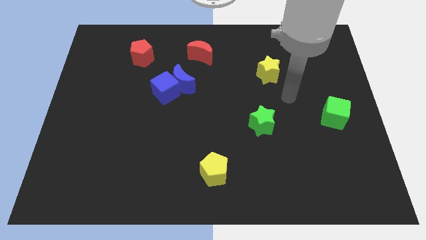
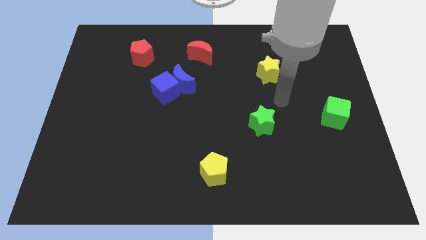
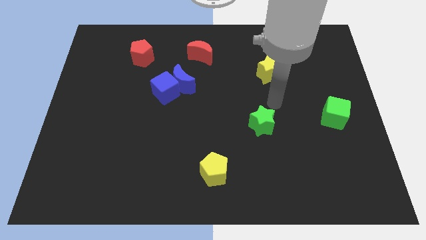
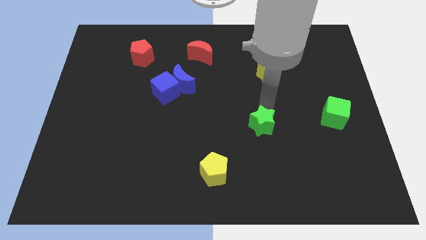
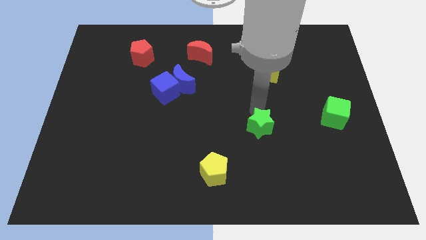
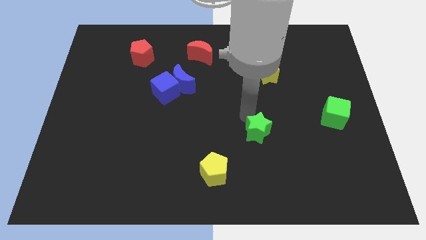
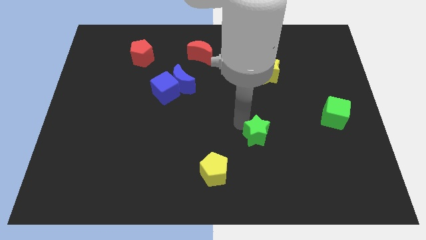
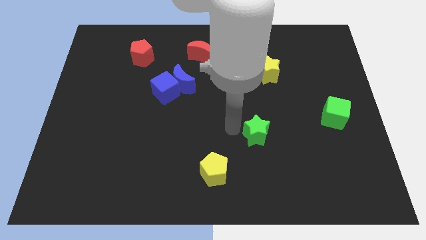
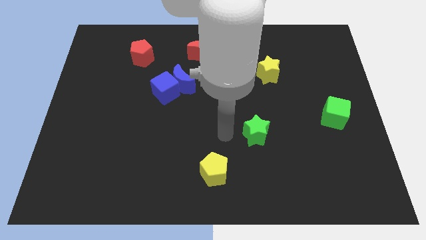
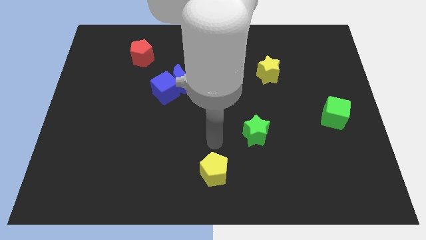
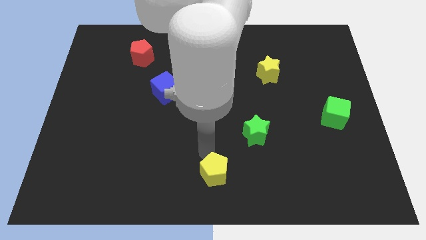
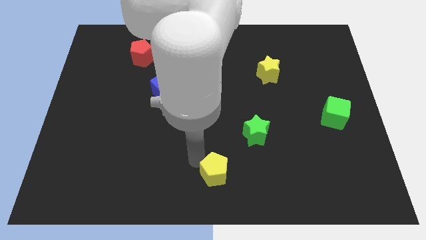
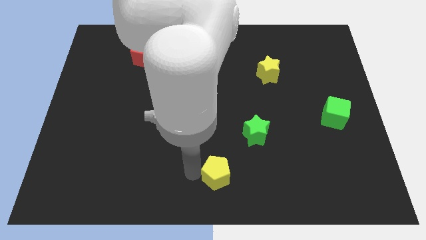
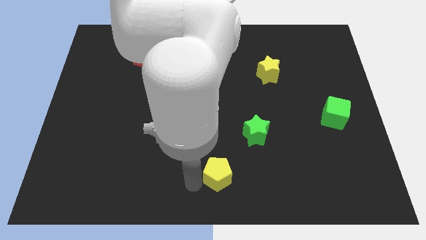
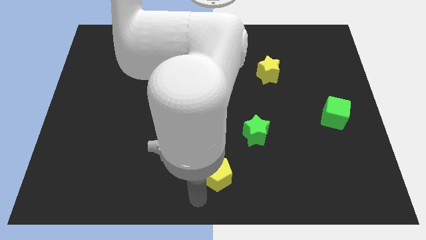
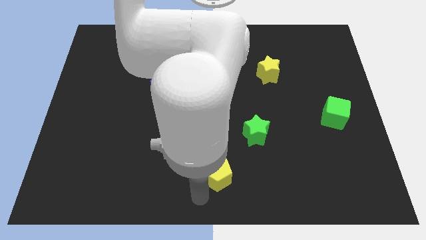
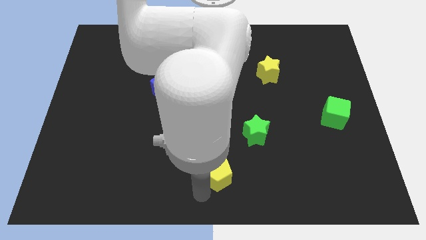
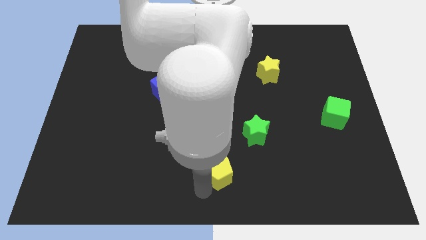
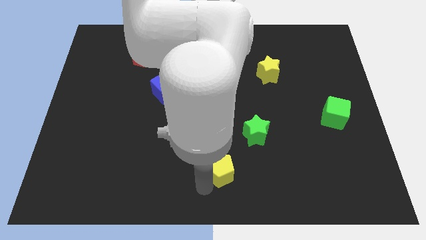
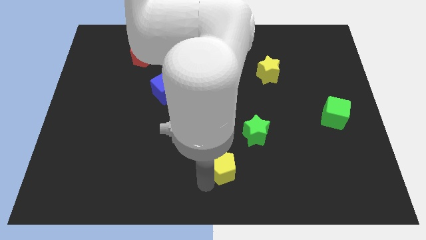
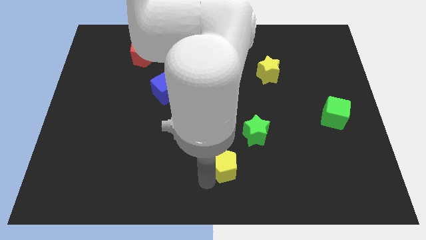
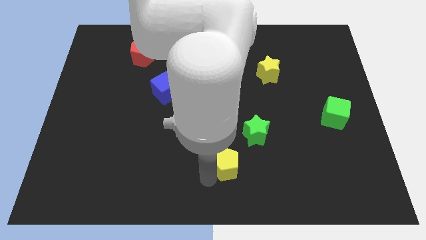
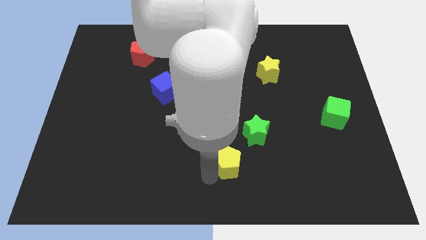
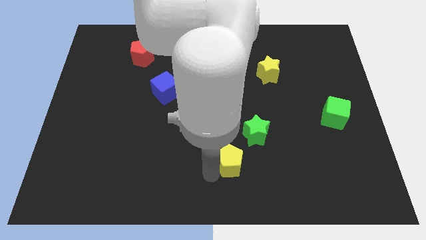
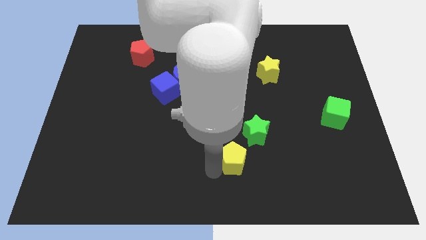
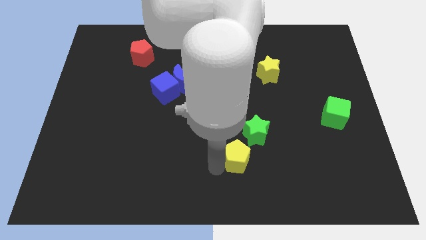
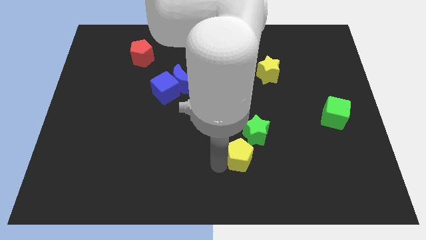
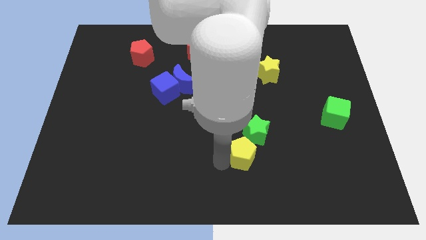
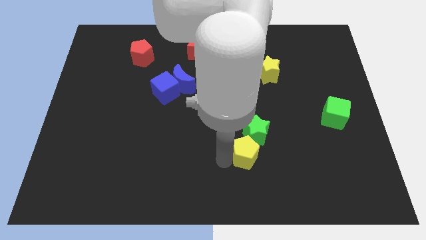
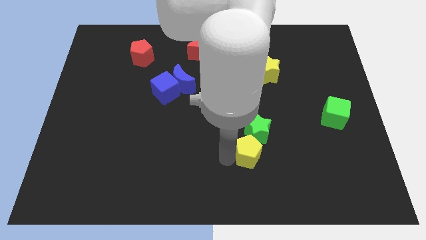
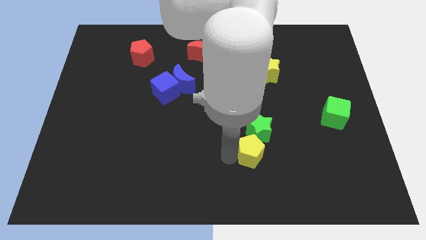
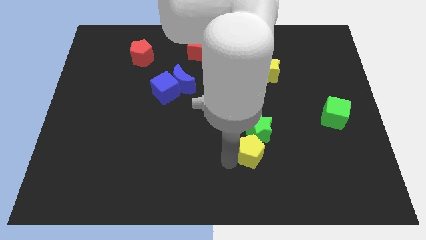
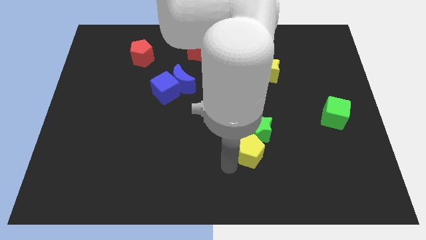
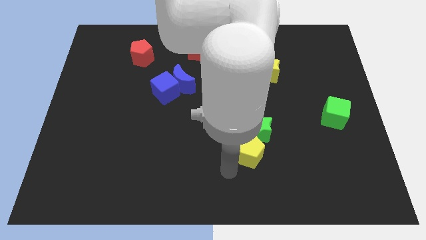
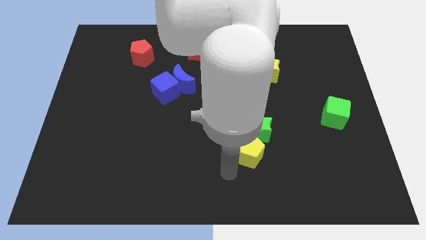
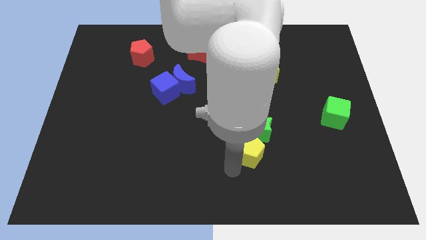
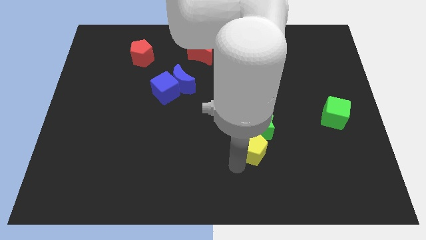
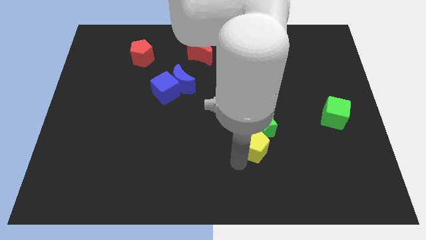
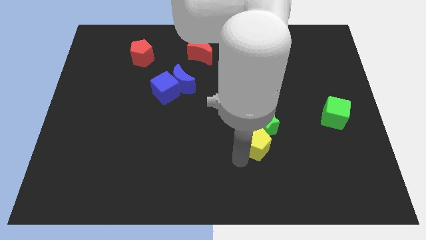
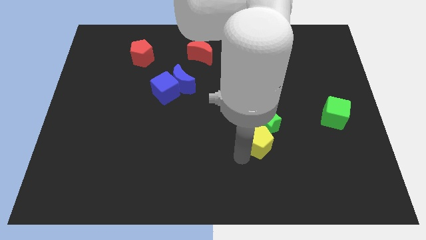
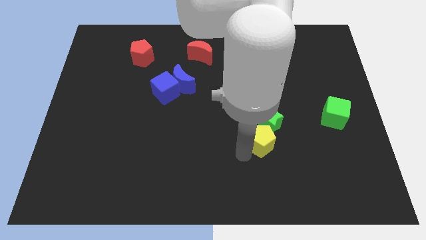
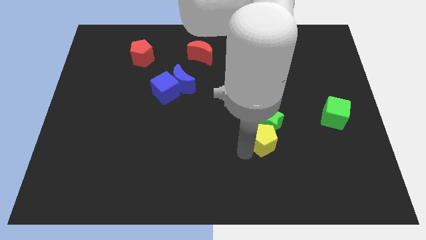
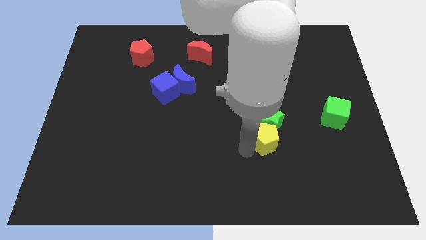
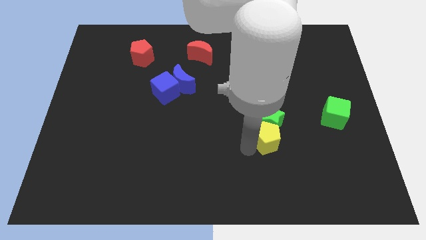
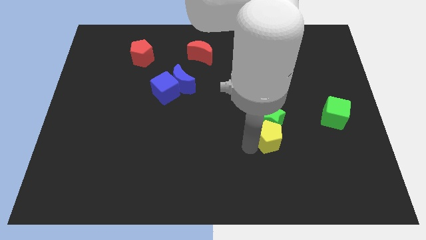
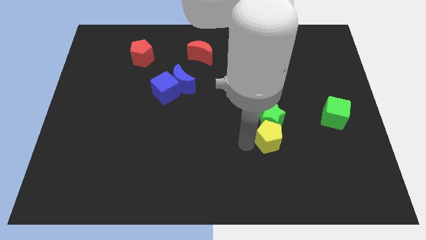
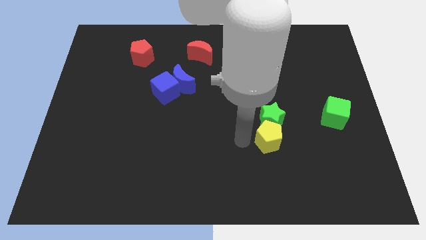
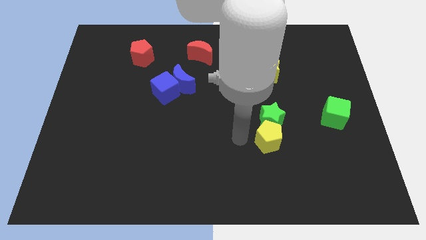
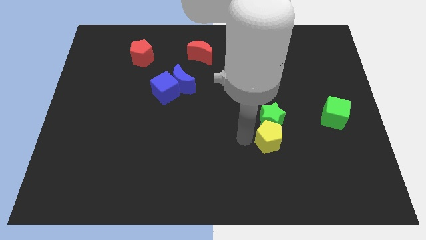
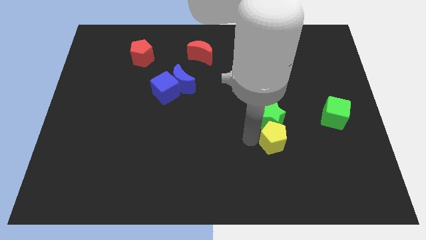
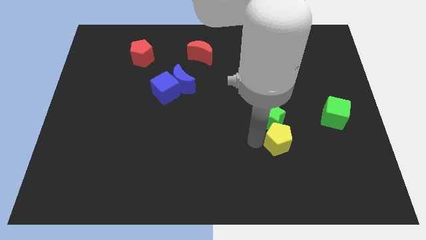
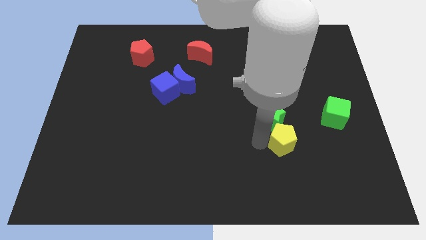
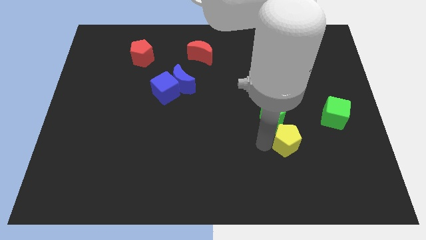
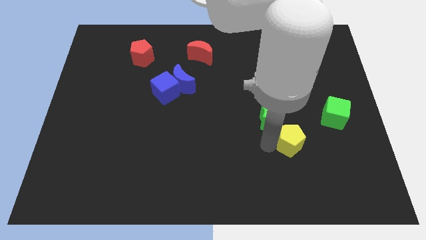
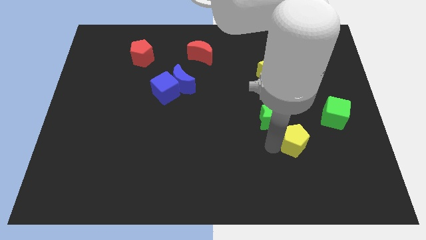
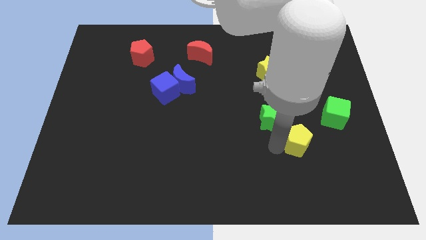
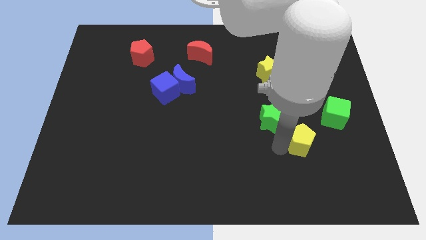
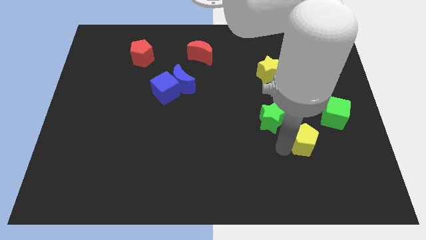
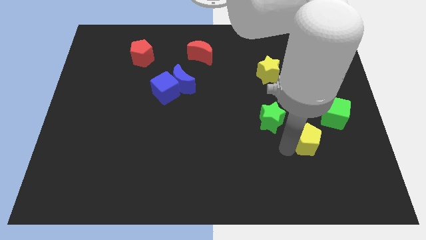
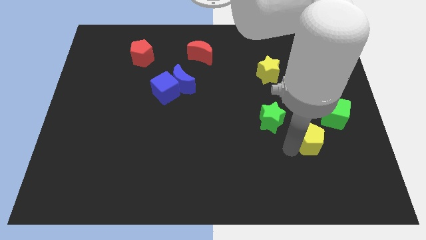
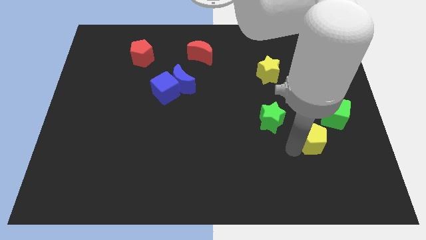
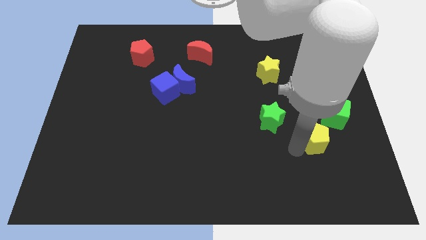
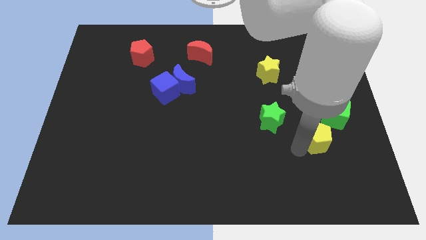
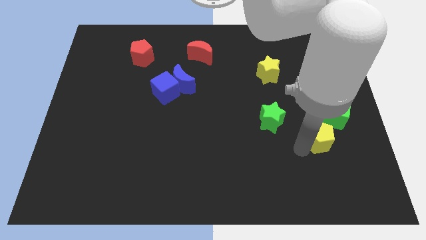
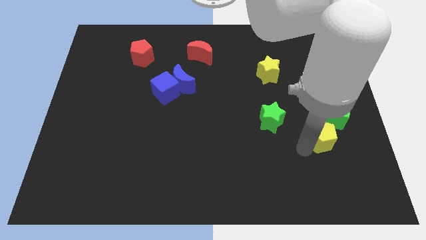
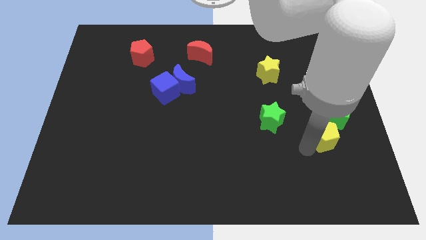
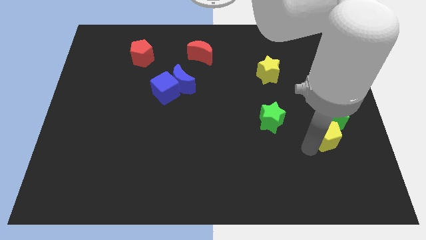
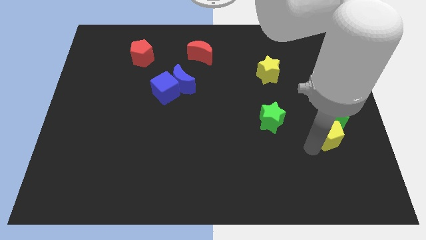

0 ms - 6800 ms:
put the yellow pentagon next to the green cube
